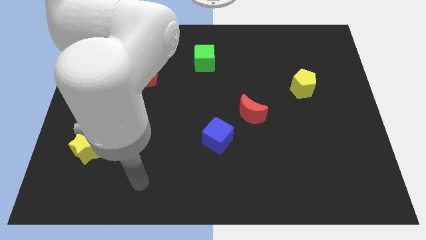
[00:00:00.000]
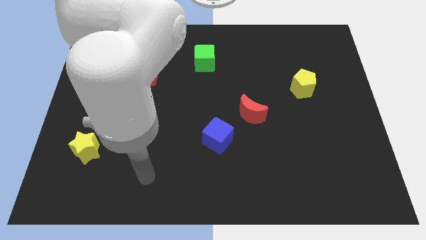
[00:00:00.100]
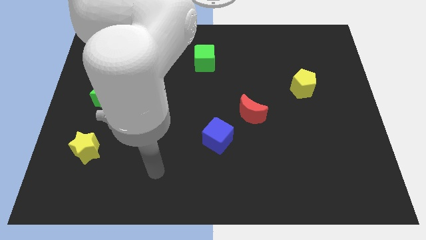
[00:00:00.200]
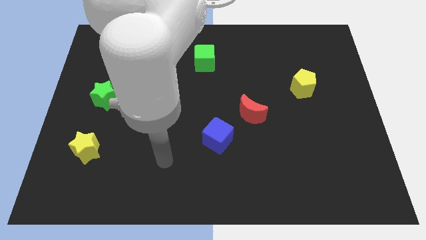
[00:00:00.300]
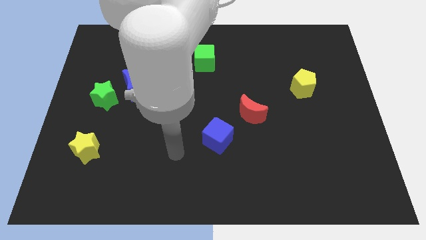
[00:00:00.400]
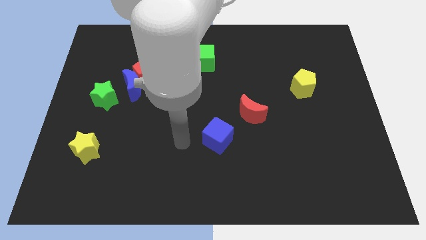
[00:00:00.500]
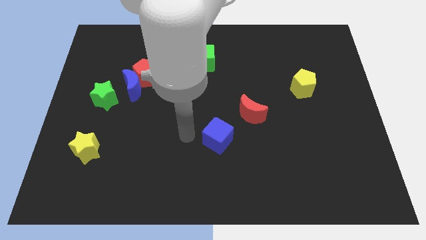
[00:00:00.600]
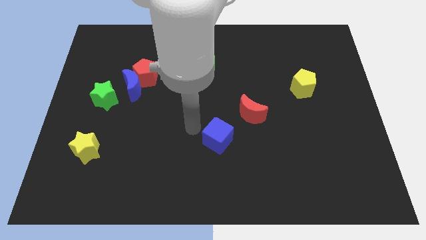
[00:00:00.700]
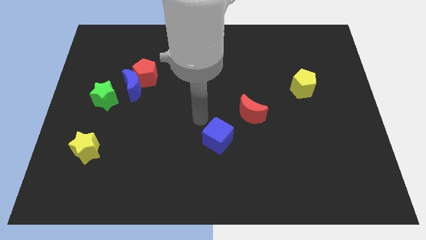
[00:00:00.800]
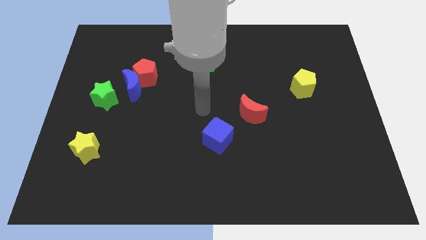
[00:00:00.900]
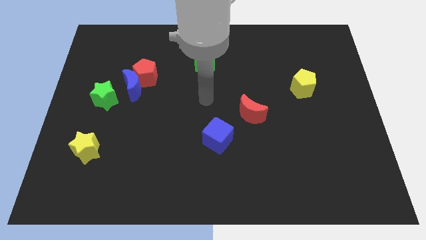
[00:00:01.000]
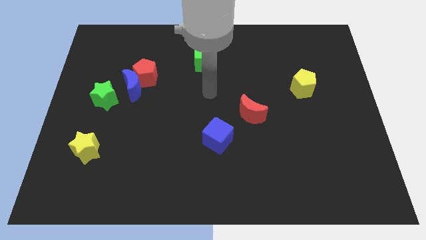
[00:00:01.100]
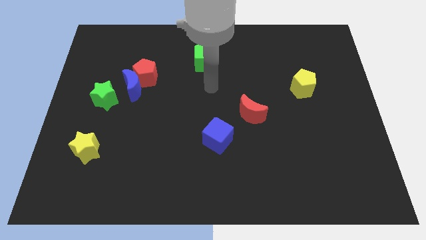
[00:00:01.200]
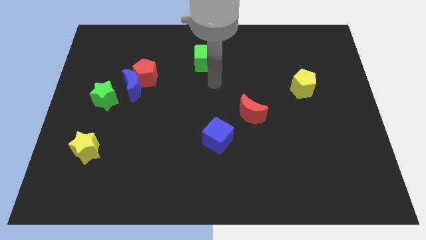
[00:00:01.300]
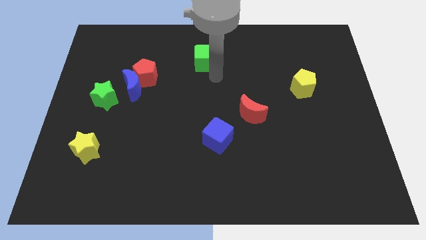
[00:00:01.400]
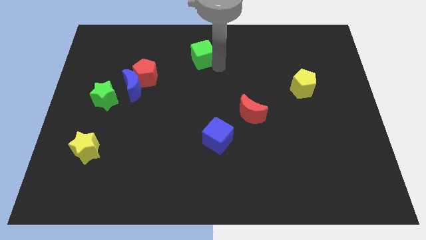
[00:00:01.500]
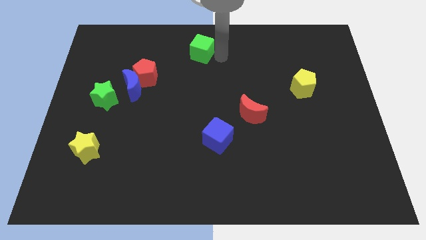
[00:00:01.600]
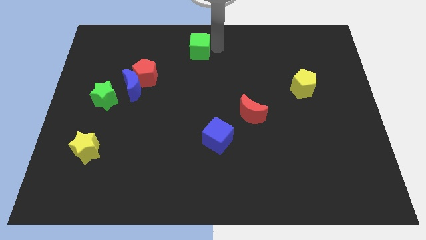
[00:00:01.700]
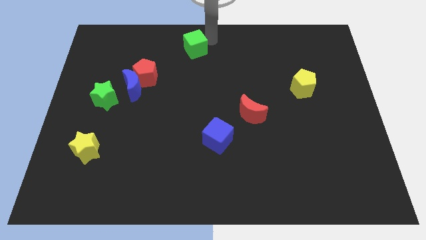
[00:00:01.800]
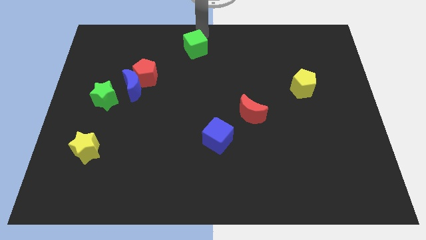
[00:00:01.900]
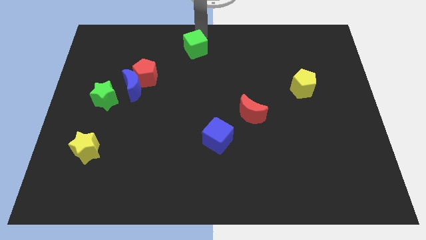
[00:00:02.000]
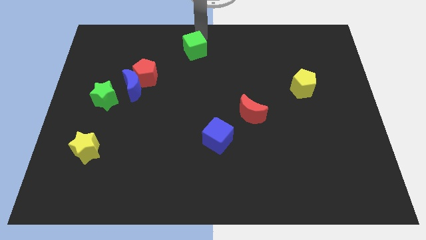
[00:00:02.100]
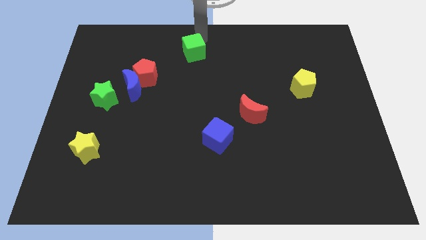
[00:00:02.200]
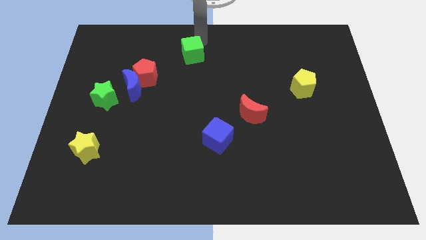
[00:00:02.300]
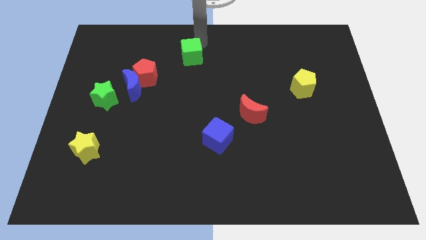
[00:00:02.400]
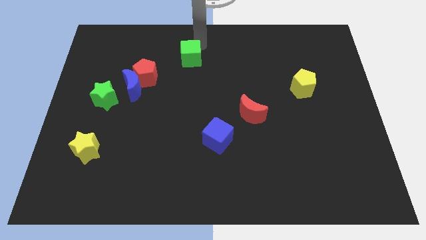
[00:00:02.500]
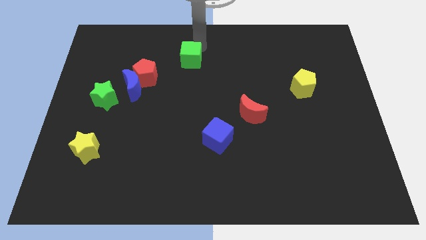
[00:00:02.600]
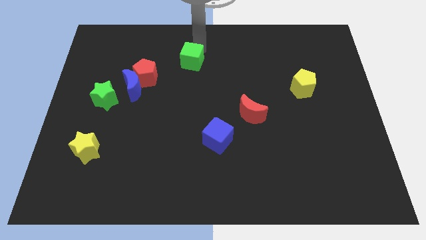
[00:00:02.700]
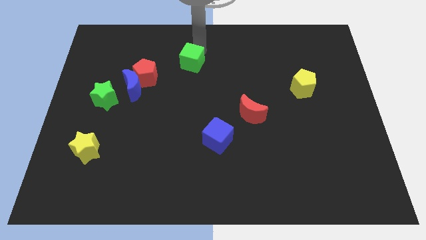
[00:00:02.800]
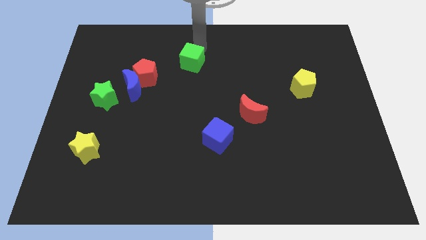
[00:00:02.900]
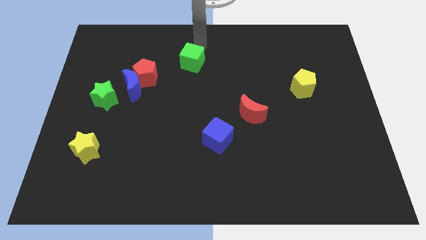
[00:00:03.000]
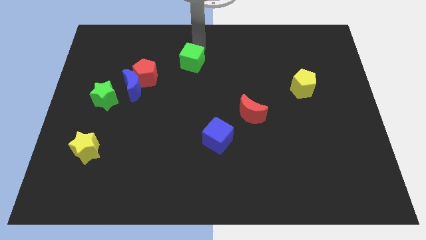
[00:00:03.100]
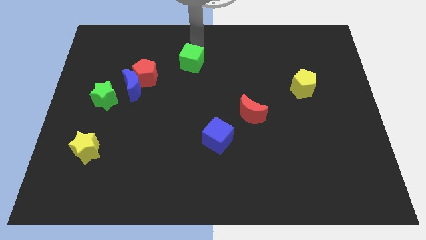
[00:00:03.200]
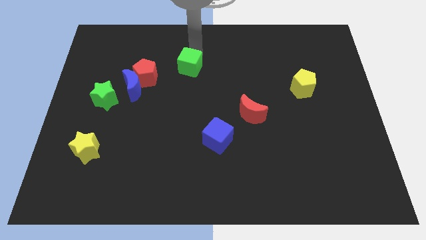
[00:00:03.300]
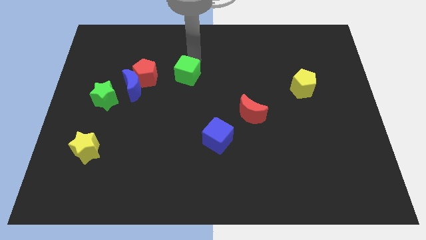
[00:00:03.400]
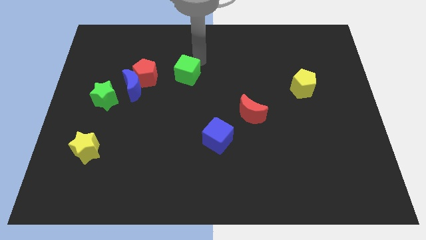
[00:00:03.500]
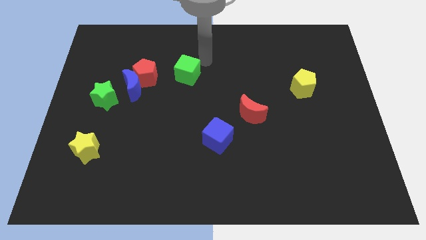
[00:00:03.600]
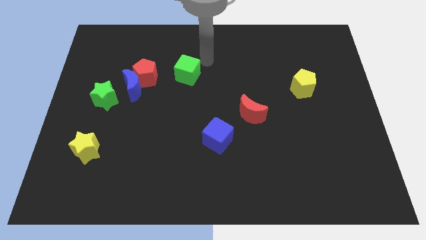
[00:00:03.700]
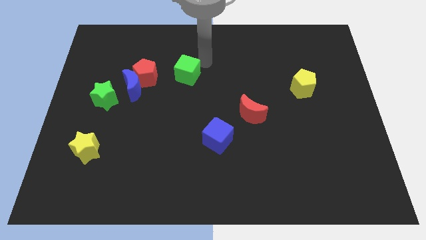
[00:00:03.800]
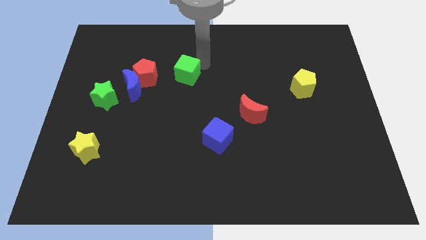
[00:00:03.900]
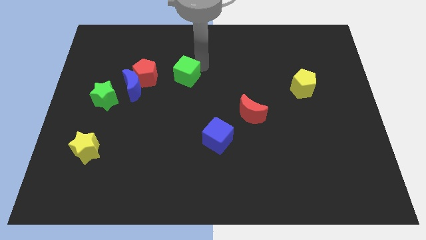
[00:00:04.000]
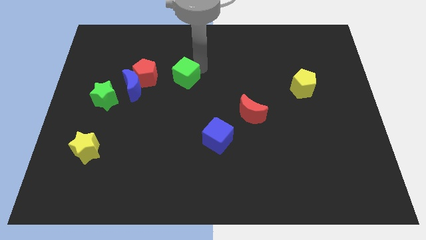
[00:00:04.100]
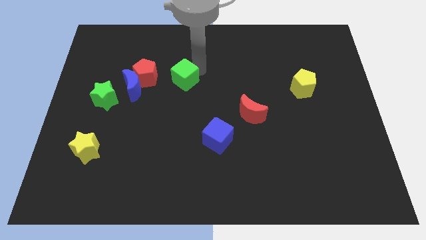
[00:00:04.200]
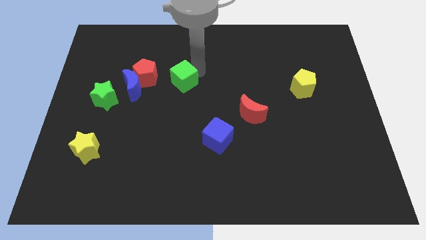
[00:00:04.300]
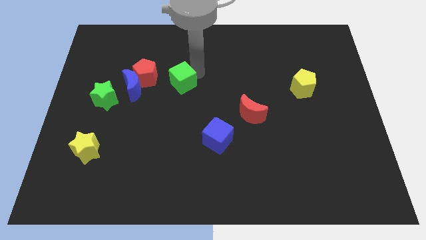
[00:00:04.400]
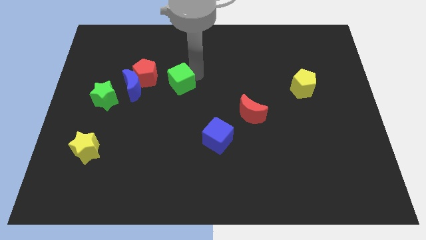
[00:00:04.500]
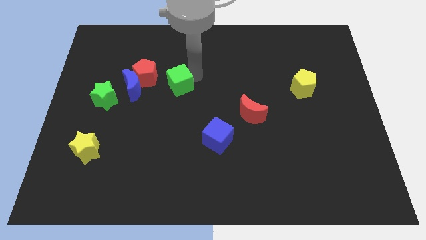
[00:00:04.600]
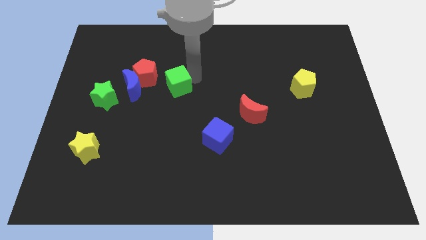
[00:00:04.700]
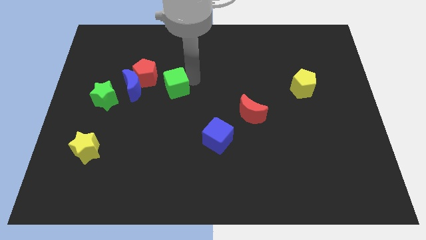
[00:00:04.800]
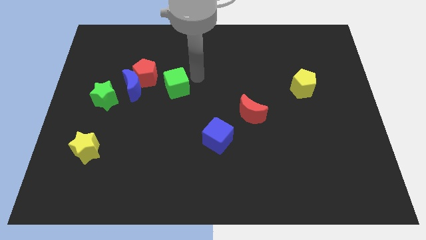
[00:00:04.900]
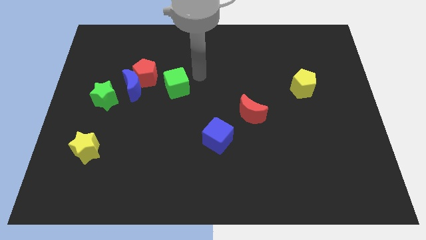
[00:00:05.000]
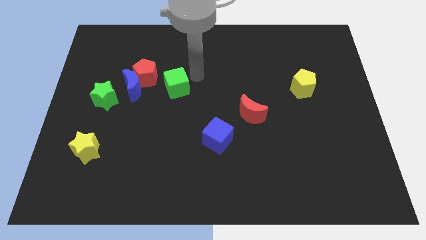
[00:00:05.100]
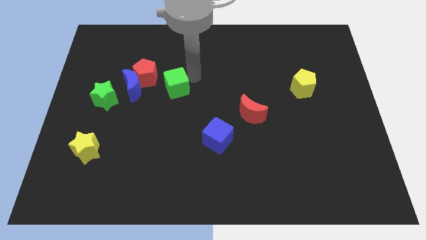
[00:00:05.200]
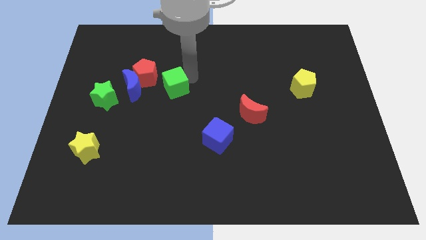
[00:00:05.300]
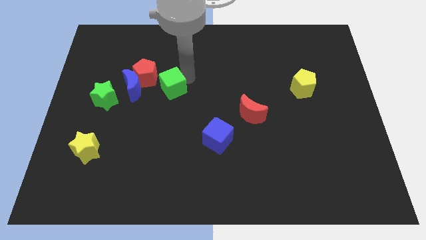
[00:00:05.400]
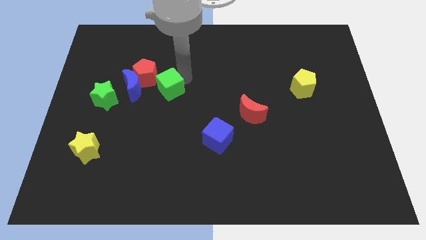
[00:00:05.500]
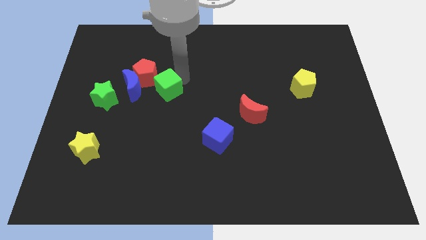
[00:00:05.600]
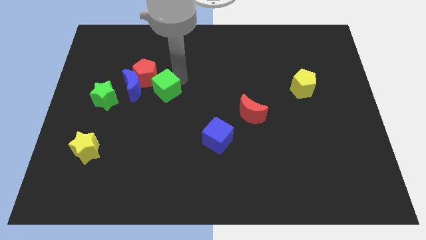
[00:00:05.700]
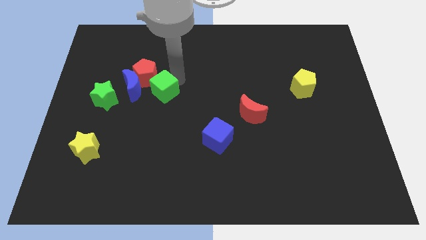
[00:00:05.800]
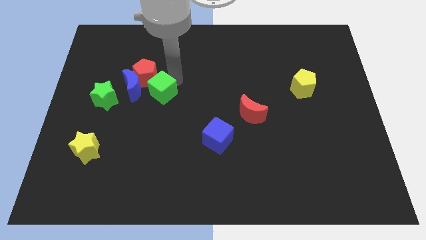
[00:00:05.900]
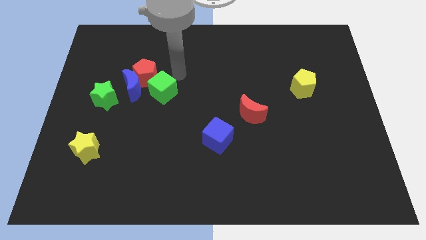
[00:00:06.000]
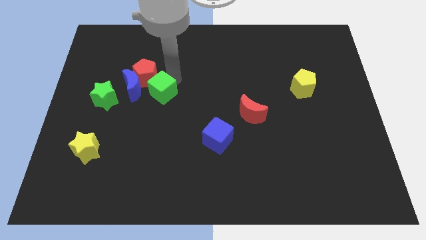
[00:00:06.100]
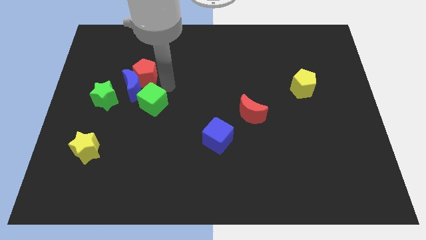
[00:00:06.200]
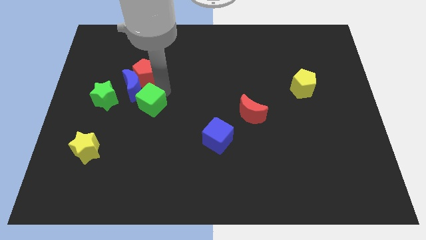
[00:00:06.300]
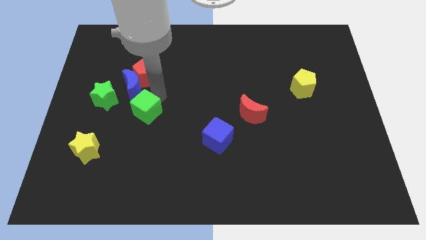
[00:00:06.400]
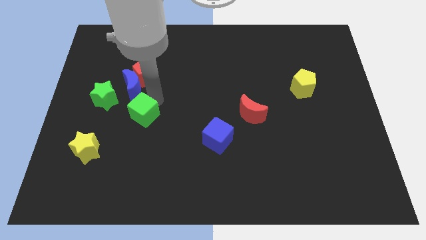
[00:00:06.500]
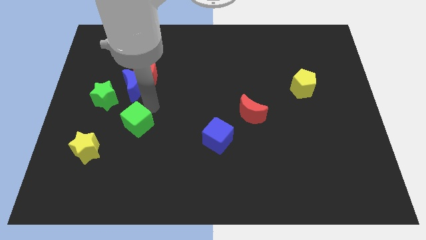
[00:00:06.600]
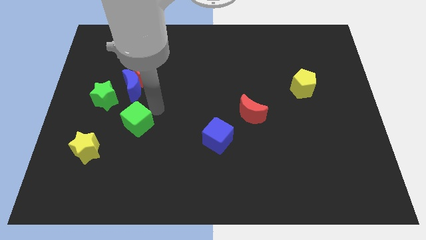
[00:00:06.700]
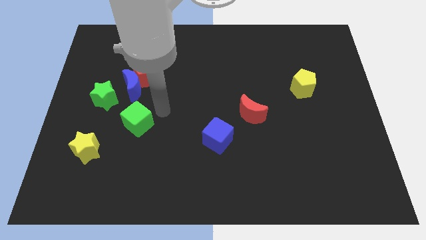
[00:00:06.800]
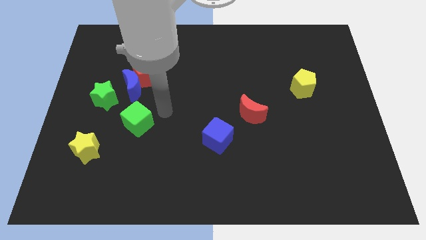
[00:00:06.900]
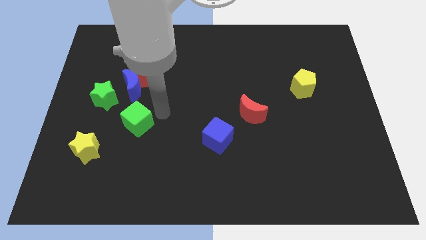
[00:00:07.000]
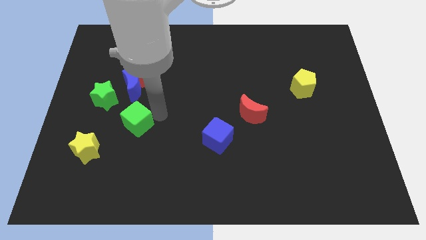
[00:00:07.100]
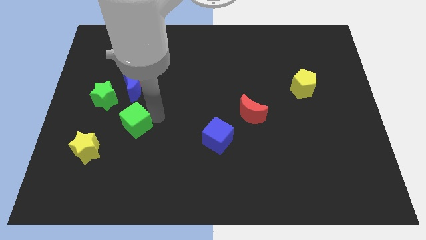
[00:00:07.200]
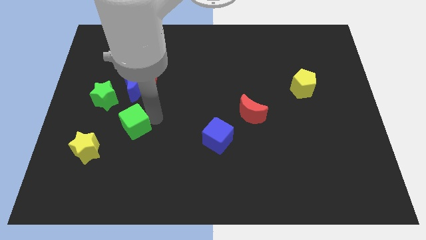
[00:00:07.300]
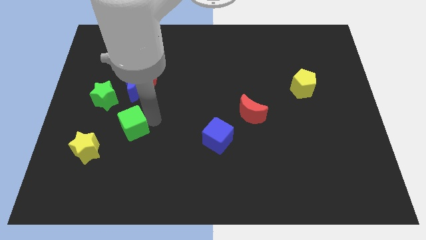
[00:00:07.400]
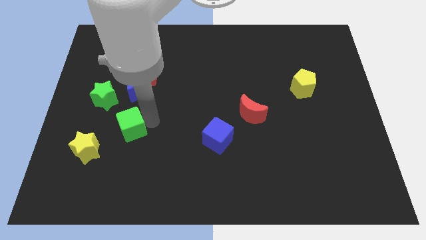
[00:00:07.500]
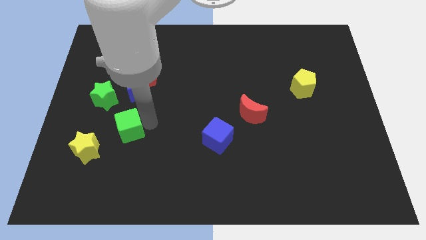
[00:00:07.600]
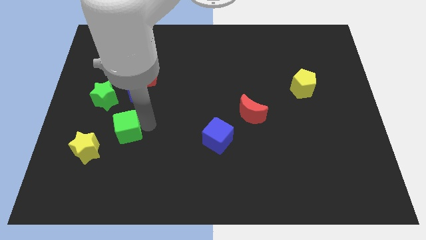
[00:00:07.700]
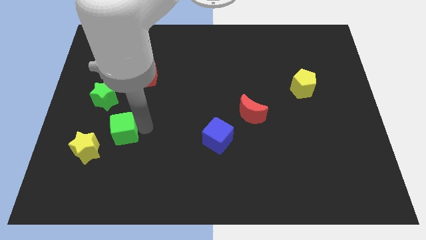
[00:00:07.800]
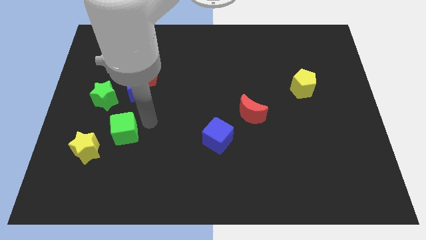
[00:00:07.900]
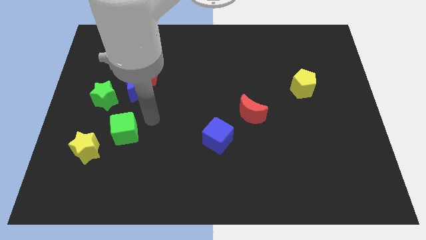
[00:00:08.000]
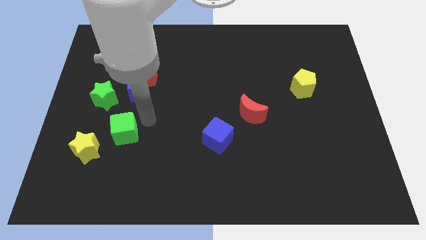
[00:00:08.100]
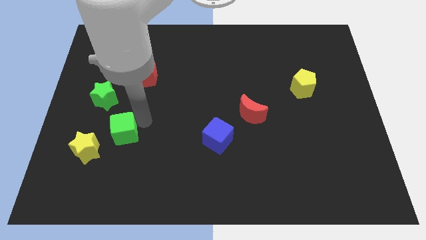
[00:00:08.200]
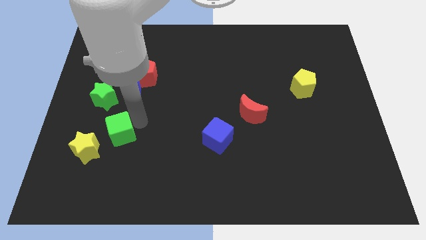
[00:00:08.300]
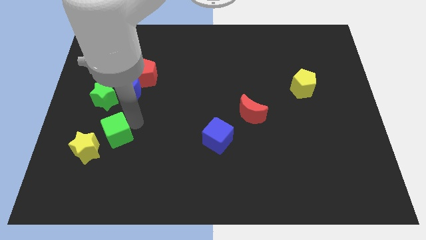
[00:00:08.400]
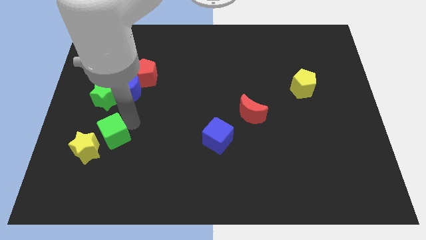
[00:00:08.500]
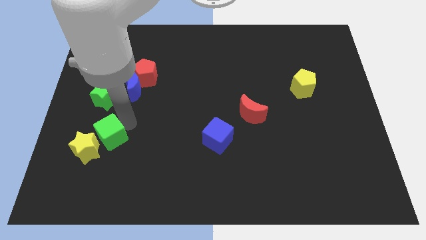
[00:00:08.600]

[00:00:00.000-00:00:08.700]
put the green cube close to the yellow star
